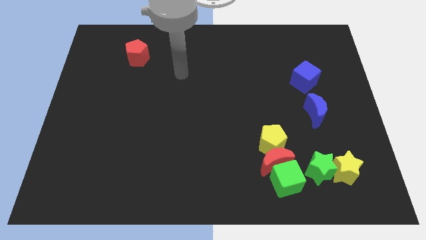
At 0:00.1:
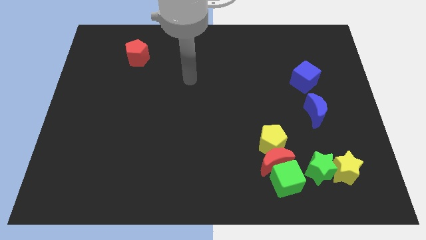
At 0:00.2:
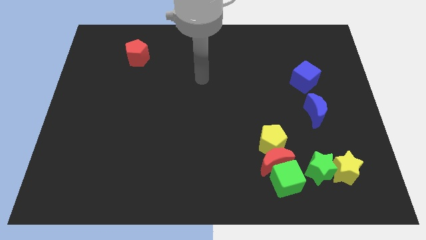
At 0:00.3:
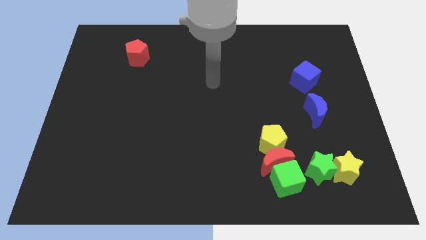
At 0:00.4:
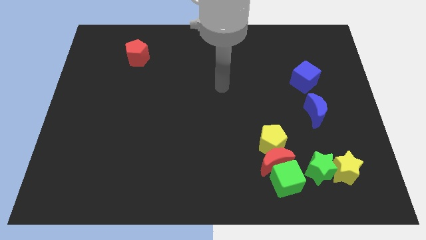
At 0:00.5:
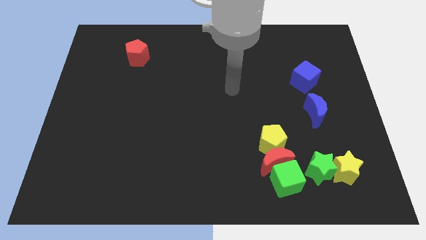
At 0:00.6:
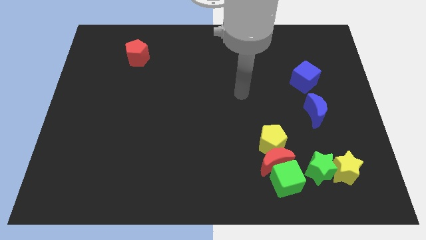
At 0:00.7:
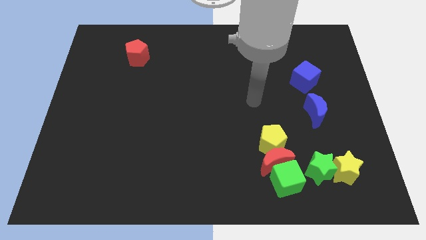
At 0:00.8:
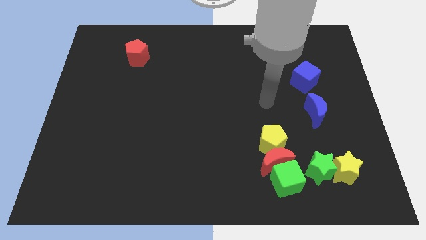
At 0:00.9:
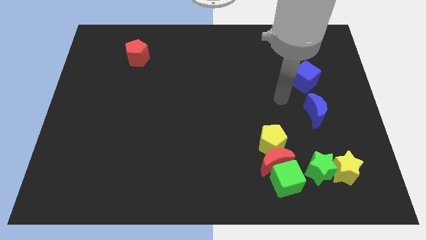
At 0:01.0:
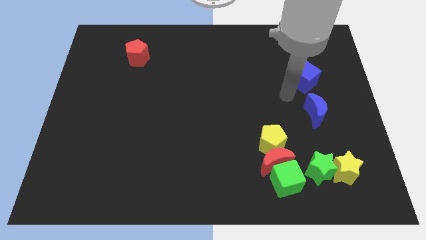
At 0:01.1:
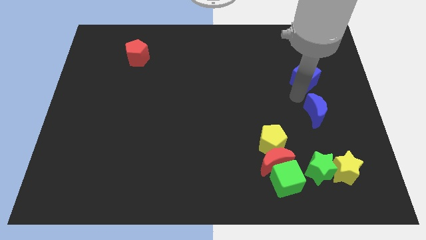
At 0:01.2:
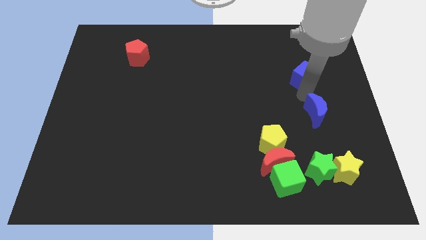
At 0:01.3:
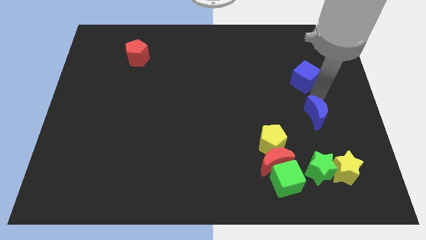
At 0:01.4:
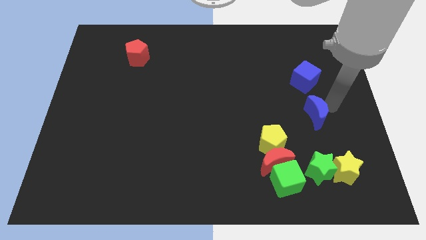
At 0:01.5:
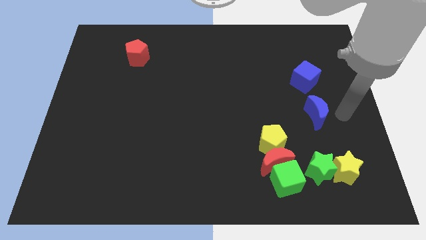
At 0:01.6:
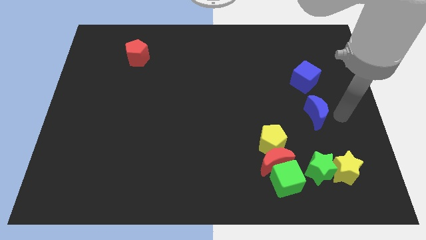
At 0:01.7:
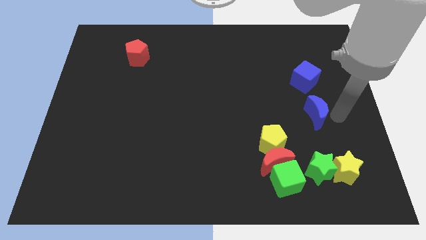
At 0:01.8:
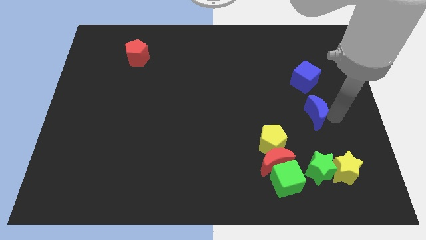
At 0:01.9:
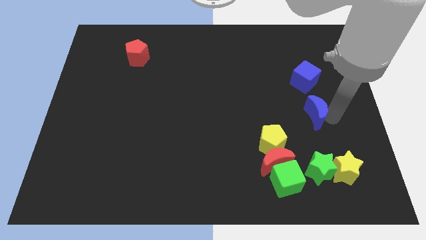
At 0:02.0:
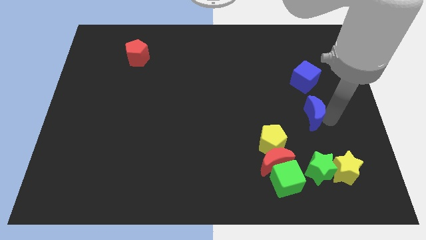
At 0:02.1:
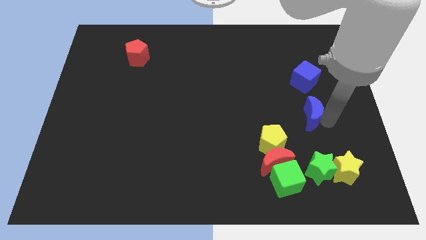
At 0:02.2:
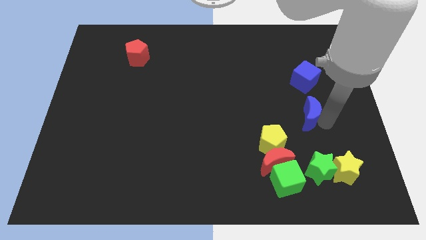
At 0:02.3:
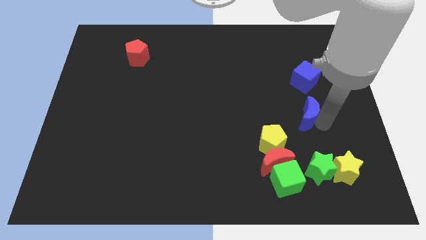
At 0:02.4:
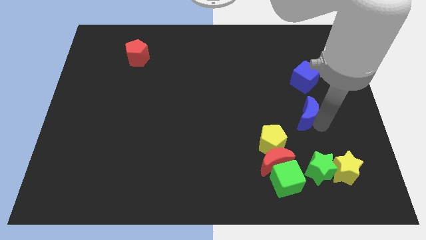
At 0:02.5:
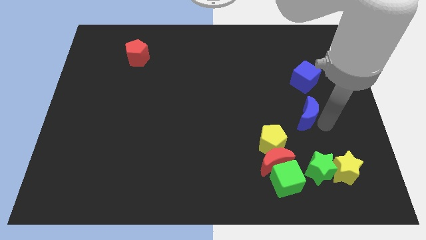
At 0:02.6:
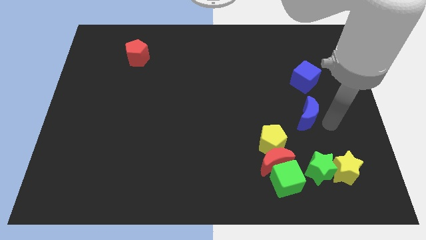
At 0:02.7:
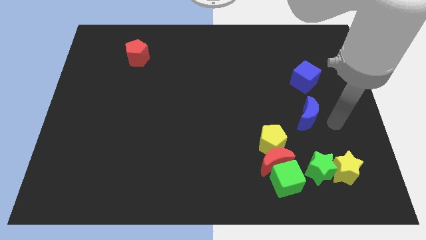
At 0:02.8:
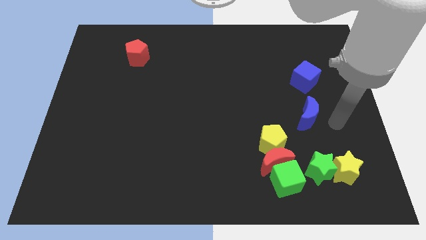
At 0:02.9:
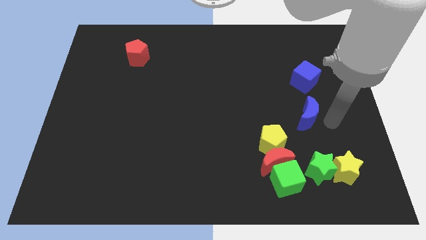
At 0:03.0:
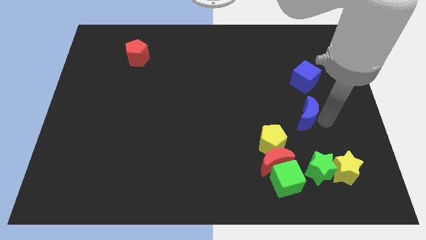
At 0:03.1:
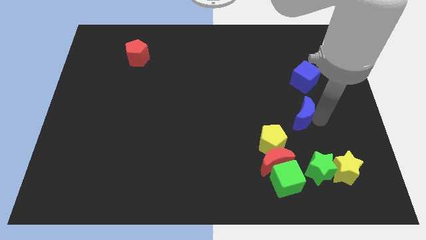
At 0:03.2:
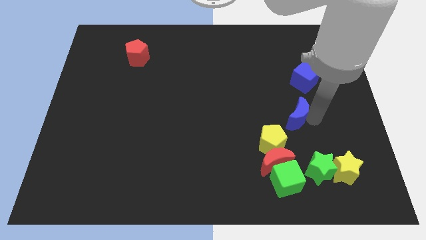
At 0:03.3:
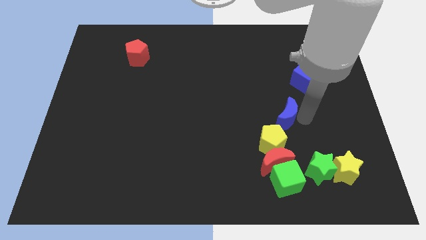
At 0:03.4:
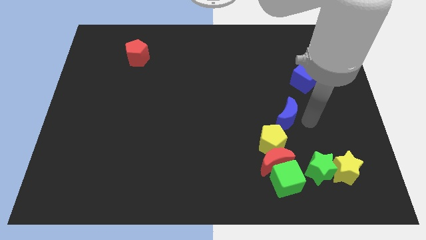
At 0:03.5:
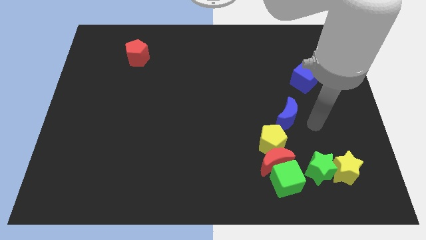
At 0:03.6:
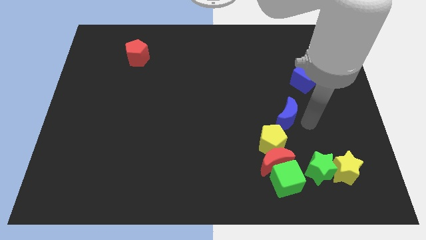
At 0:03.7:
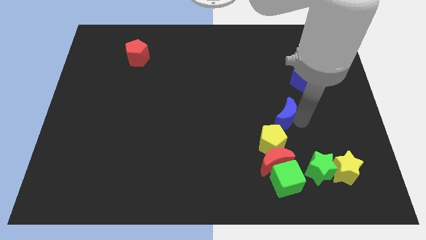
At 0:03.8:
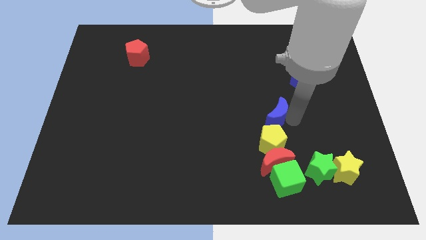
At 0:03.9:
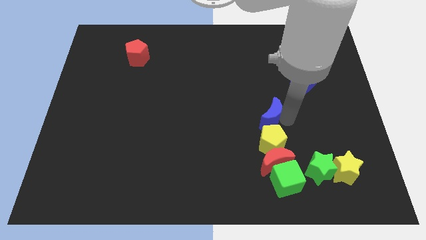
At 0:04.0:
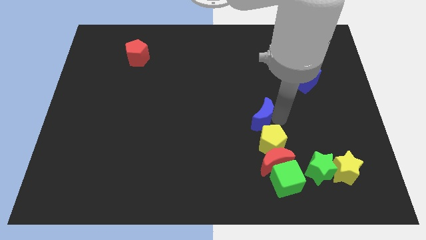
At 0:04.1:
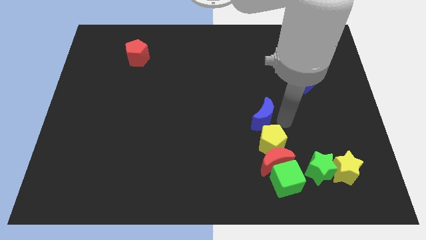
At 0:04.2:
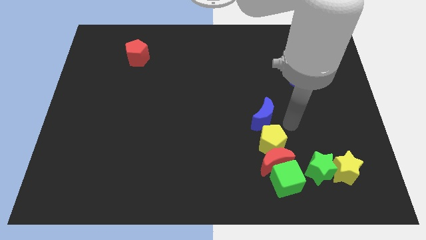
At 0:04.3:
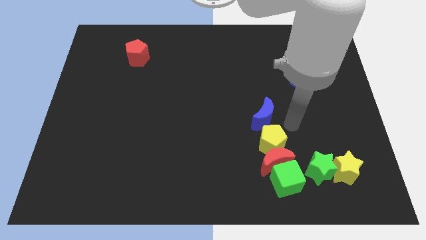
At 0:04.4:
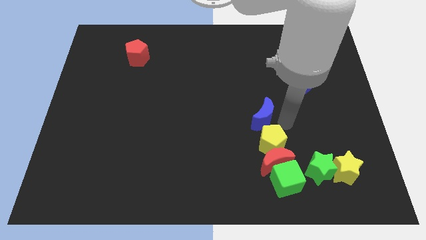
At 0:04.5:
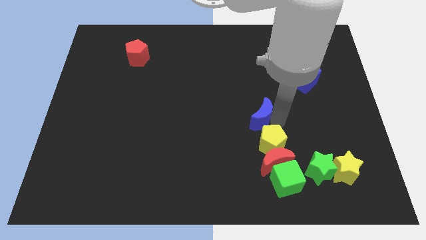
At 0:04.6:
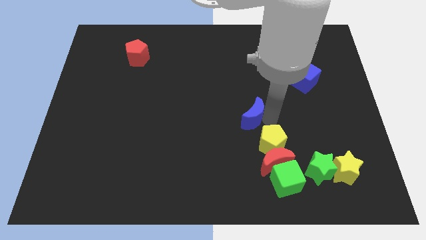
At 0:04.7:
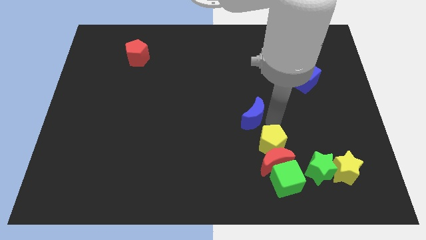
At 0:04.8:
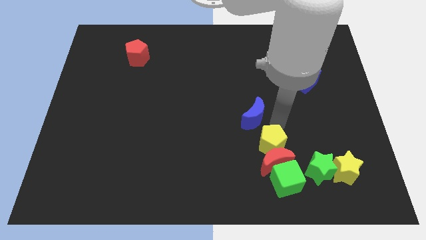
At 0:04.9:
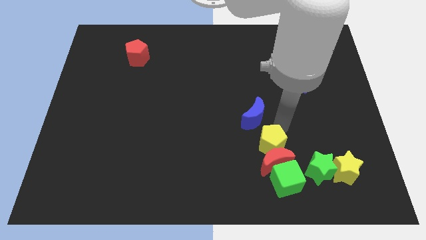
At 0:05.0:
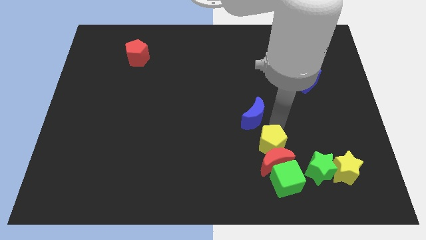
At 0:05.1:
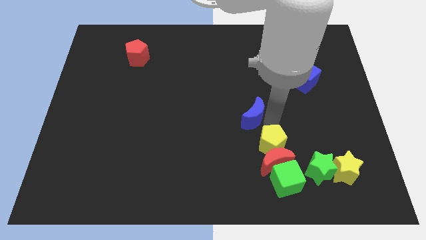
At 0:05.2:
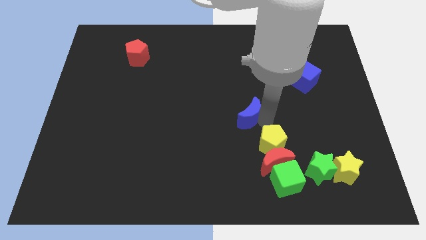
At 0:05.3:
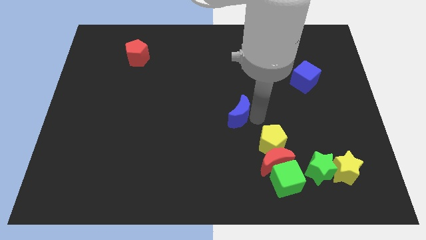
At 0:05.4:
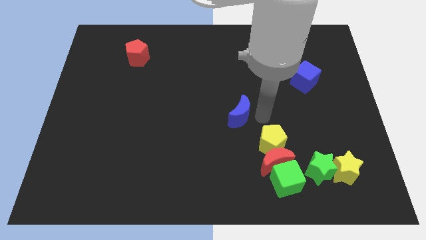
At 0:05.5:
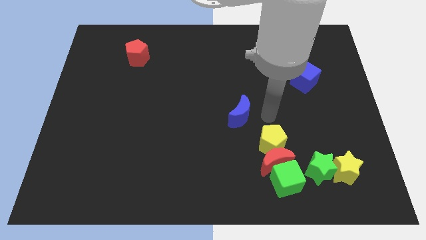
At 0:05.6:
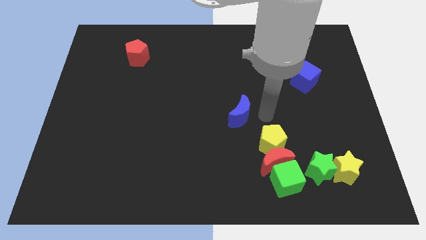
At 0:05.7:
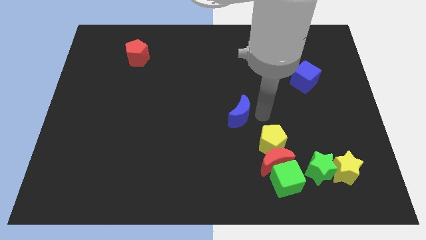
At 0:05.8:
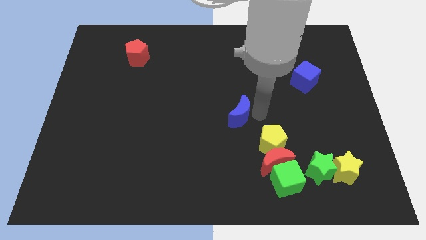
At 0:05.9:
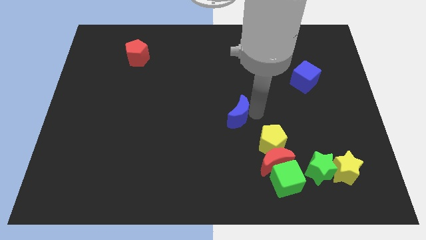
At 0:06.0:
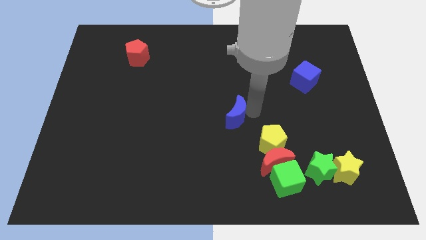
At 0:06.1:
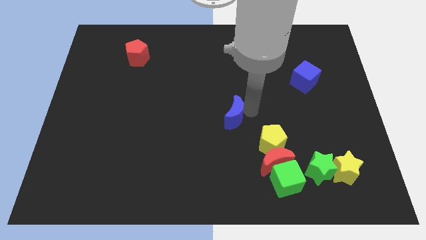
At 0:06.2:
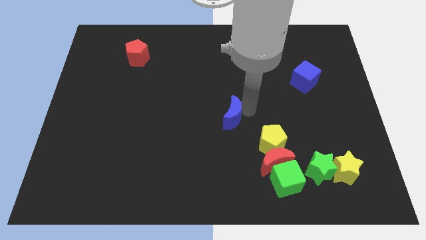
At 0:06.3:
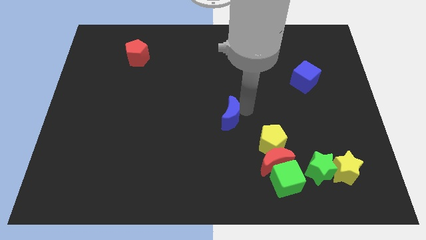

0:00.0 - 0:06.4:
slide the blue moon to the left

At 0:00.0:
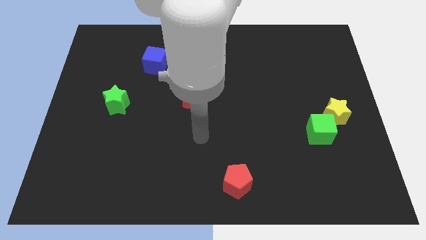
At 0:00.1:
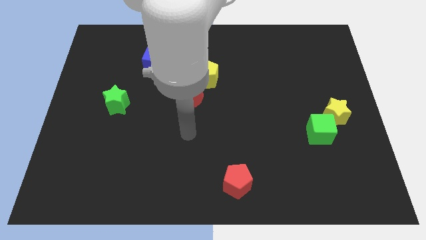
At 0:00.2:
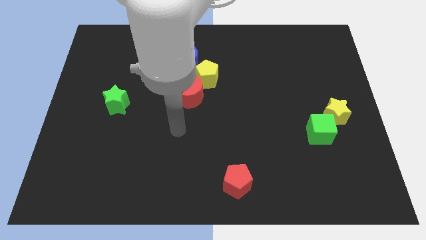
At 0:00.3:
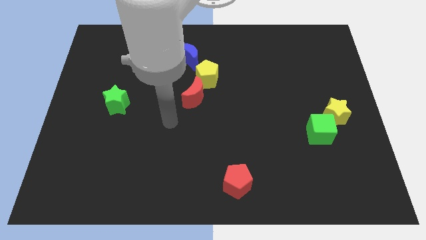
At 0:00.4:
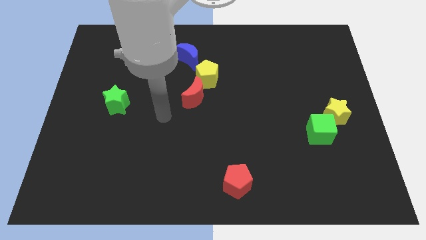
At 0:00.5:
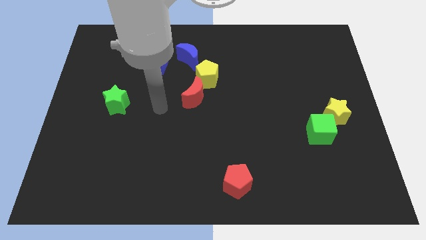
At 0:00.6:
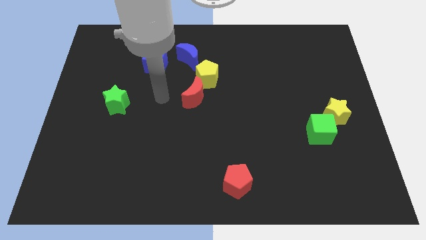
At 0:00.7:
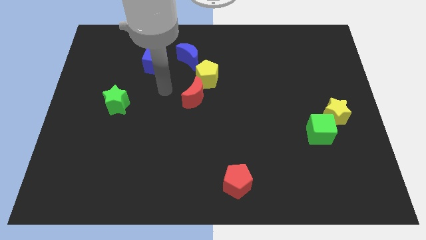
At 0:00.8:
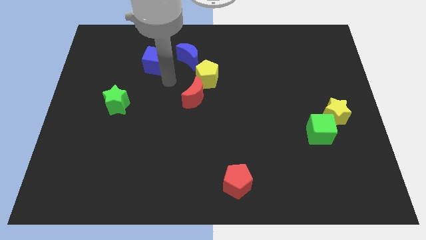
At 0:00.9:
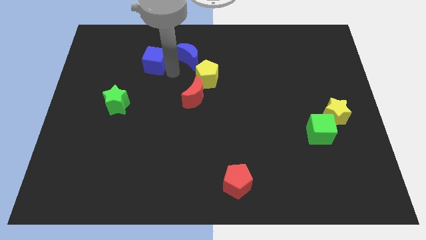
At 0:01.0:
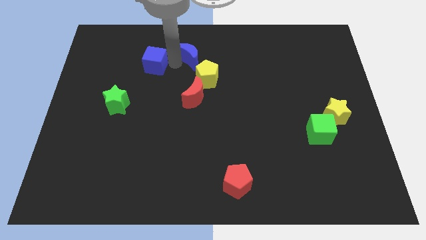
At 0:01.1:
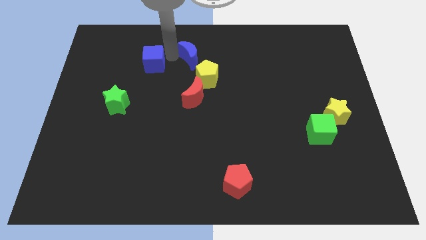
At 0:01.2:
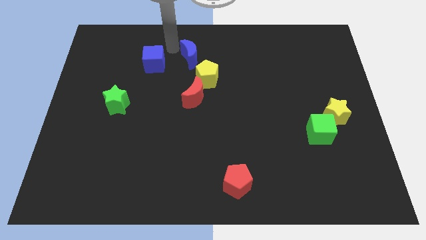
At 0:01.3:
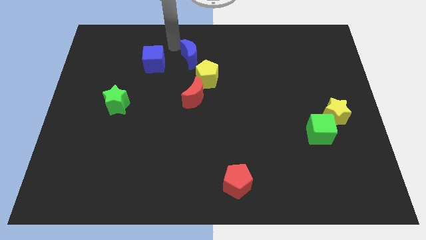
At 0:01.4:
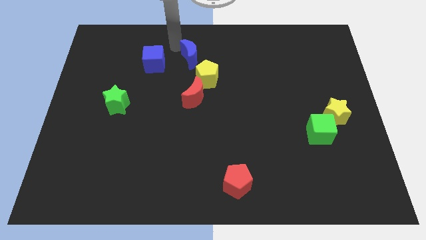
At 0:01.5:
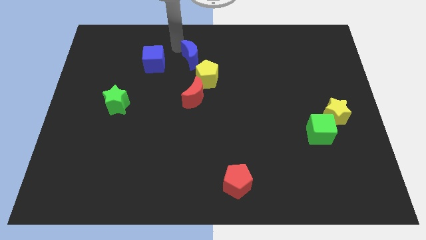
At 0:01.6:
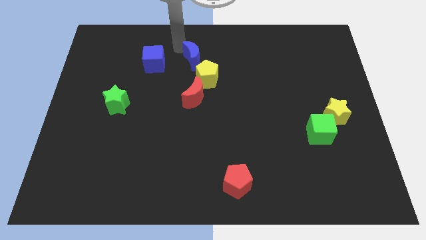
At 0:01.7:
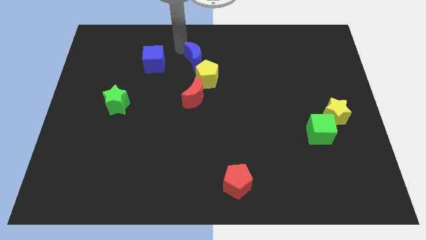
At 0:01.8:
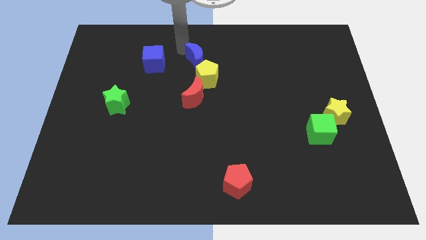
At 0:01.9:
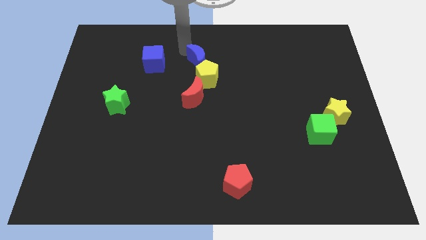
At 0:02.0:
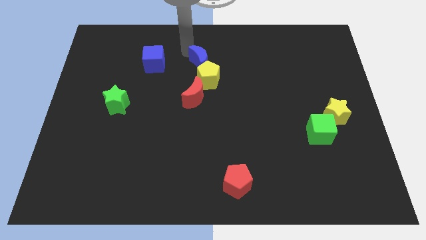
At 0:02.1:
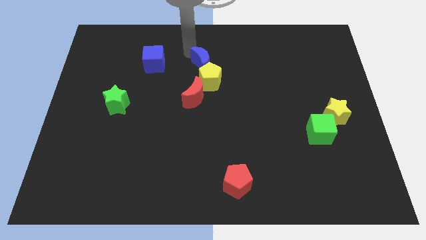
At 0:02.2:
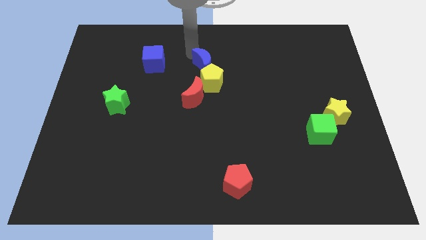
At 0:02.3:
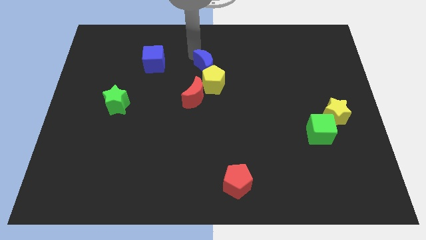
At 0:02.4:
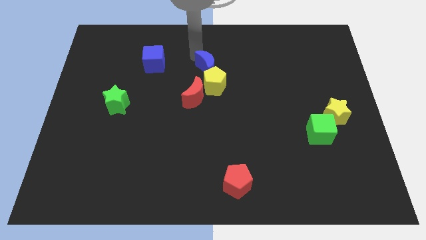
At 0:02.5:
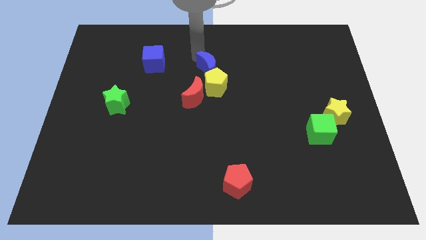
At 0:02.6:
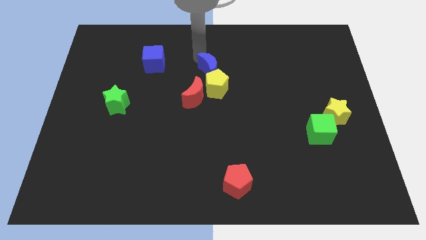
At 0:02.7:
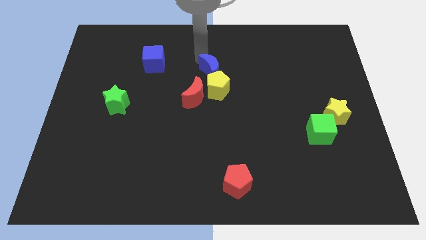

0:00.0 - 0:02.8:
slightly push the blue moon downwards and then right
